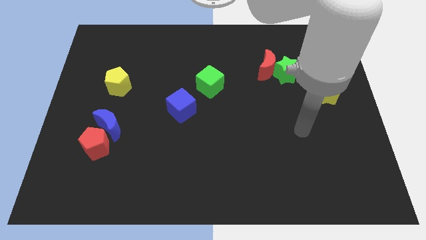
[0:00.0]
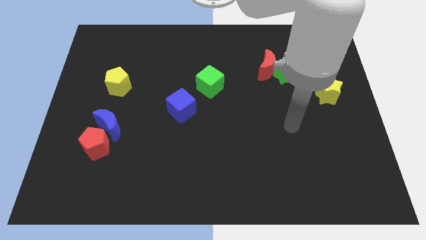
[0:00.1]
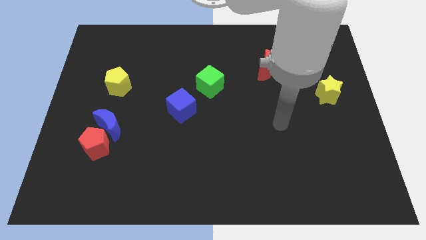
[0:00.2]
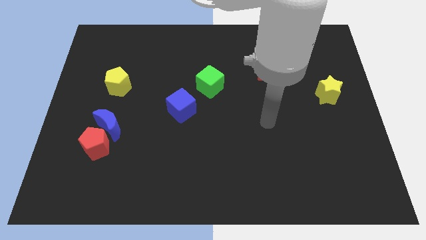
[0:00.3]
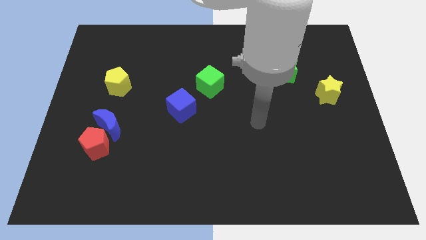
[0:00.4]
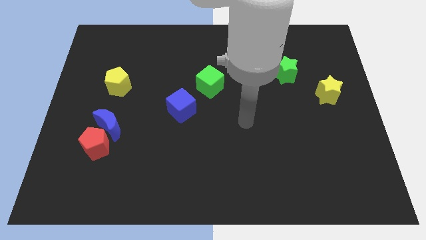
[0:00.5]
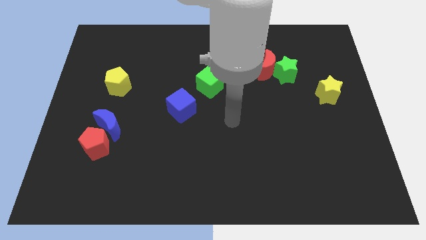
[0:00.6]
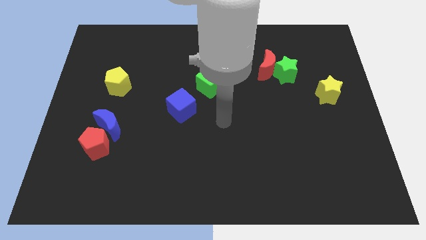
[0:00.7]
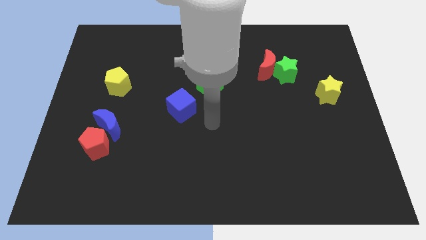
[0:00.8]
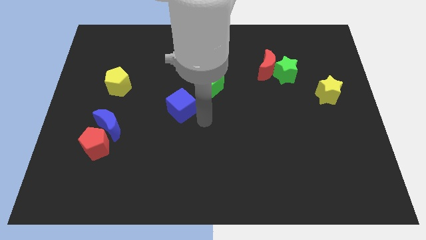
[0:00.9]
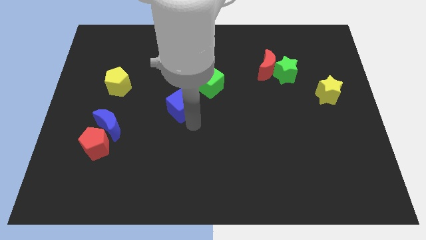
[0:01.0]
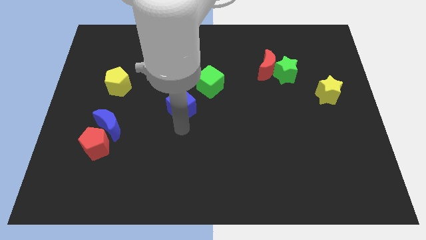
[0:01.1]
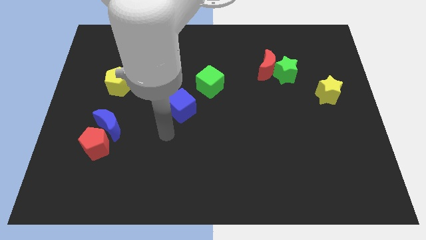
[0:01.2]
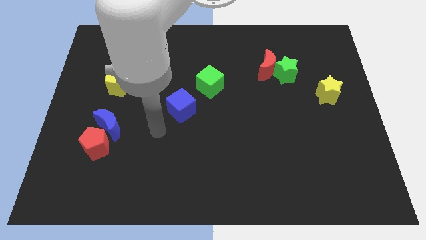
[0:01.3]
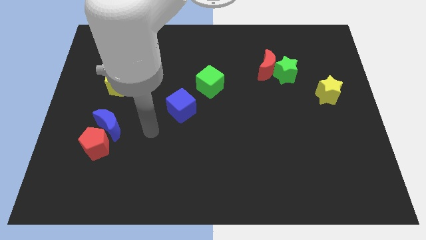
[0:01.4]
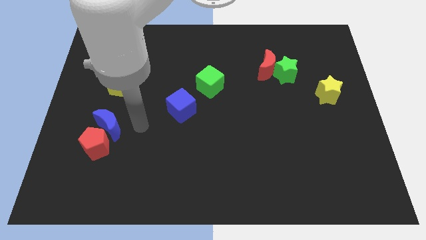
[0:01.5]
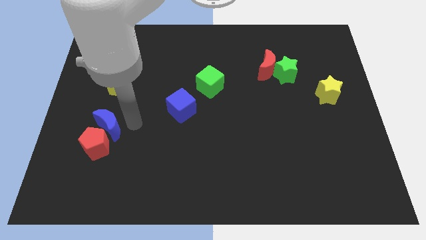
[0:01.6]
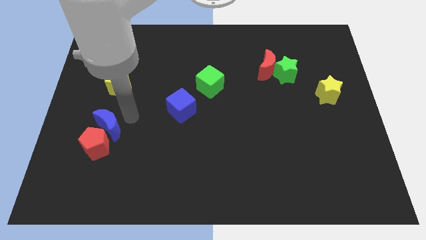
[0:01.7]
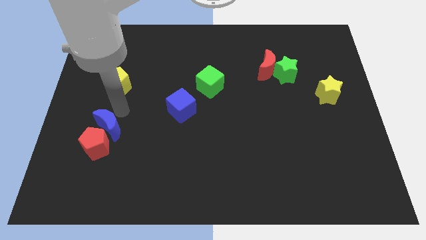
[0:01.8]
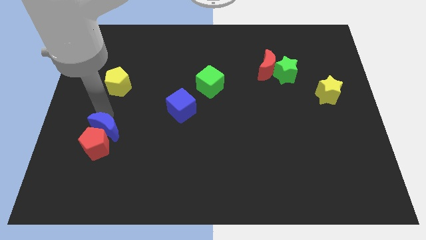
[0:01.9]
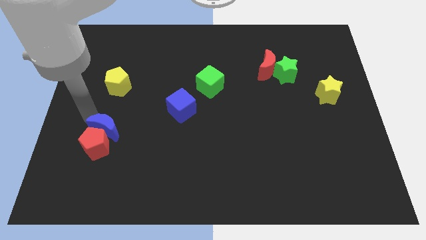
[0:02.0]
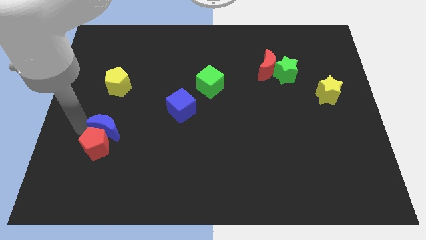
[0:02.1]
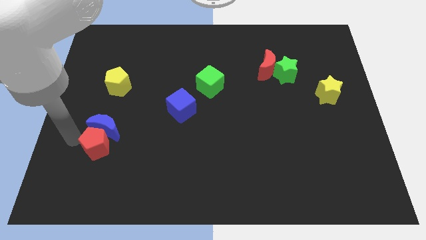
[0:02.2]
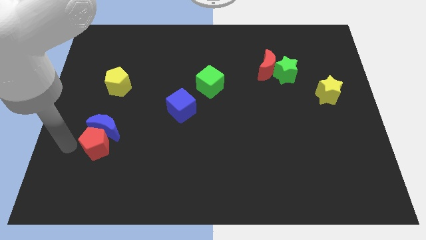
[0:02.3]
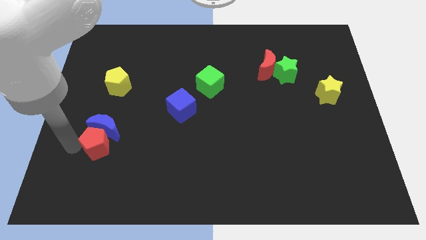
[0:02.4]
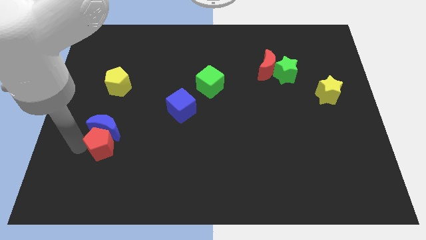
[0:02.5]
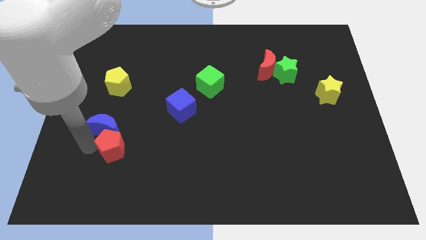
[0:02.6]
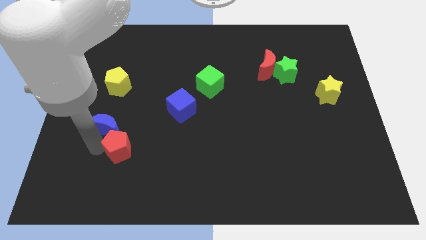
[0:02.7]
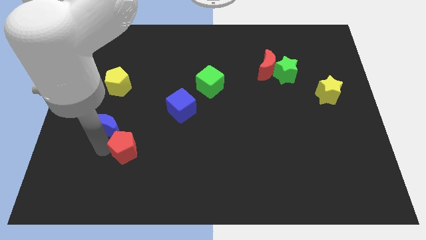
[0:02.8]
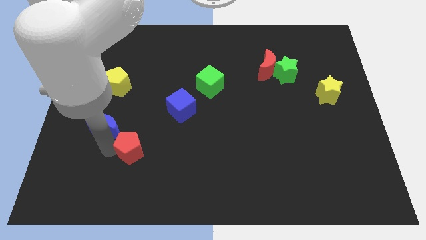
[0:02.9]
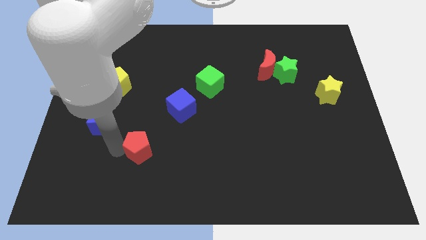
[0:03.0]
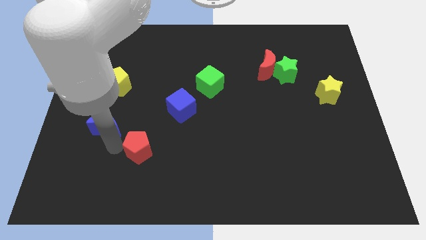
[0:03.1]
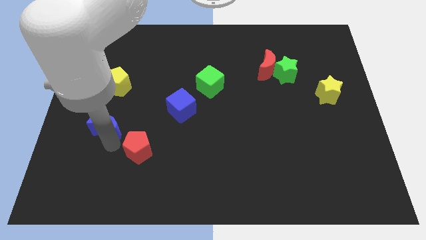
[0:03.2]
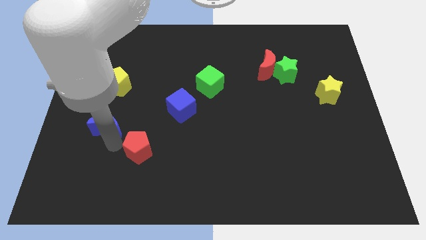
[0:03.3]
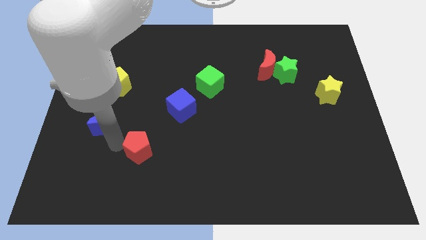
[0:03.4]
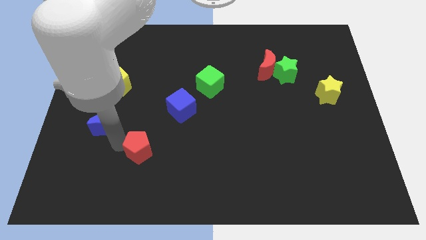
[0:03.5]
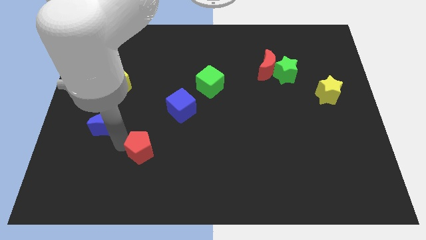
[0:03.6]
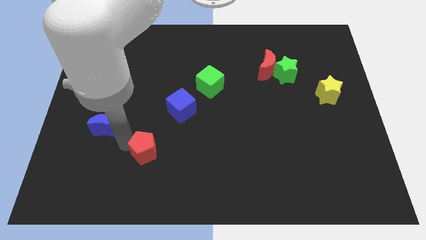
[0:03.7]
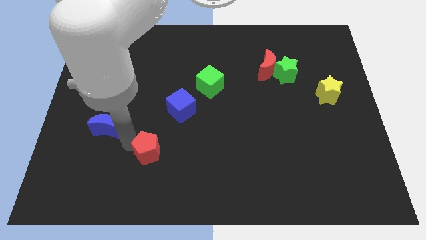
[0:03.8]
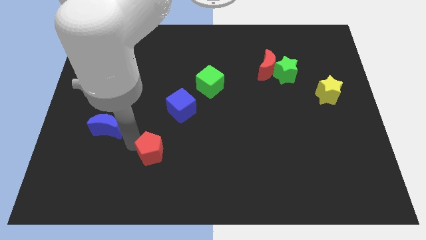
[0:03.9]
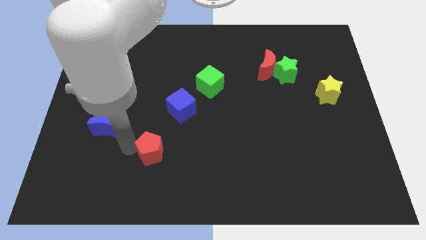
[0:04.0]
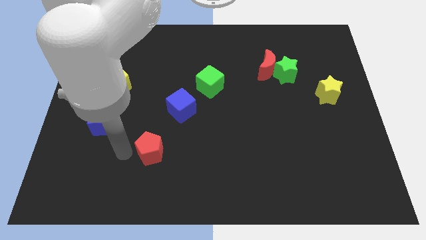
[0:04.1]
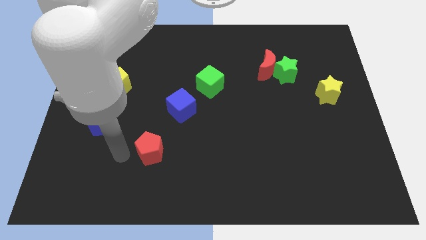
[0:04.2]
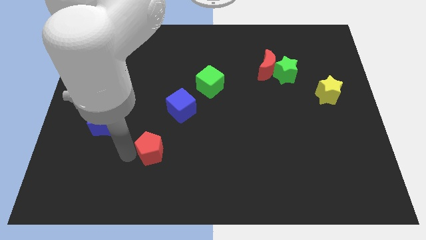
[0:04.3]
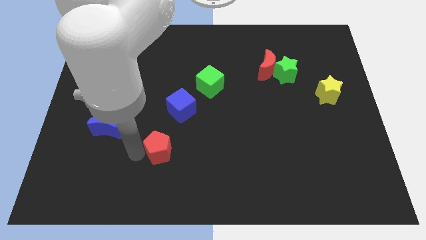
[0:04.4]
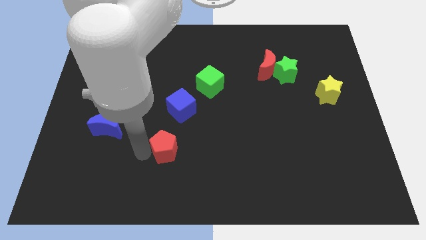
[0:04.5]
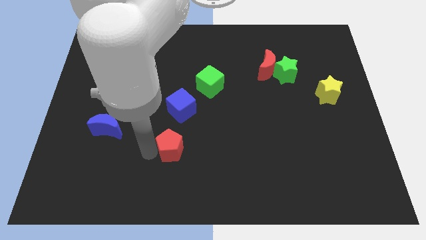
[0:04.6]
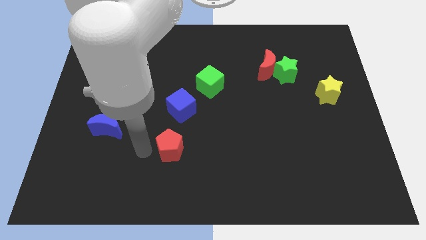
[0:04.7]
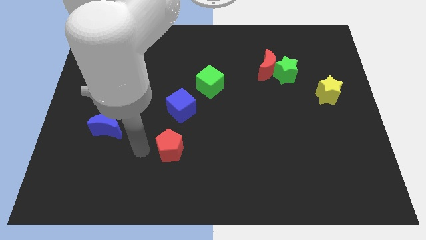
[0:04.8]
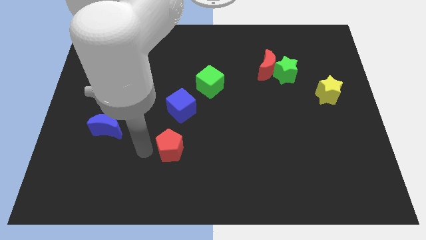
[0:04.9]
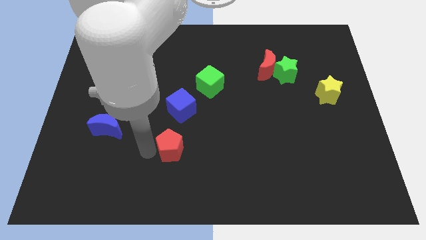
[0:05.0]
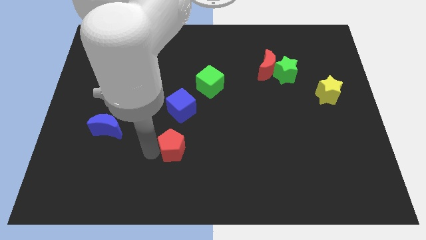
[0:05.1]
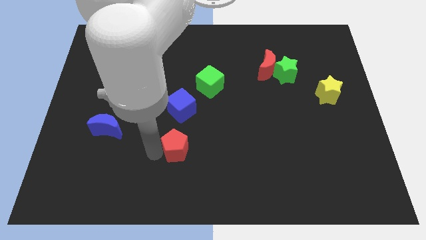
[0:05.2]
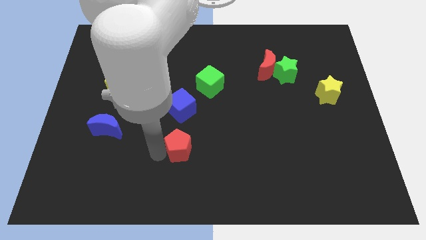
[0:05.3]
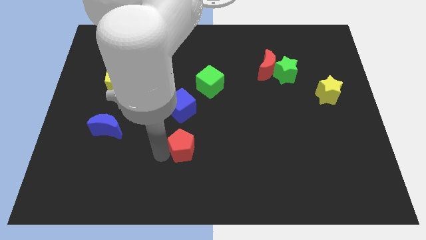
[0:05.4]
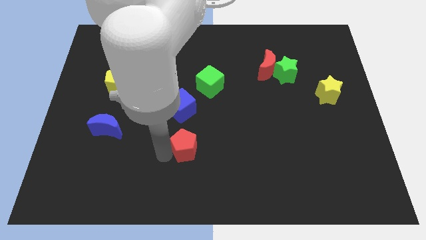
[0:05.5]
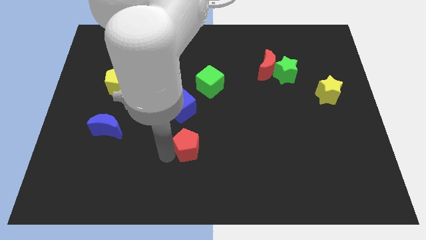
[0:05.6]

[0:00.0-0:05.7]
push the red pentagon to the right

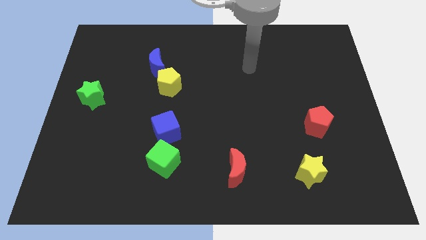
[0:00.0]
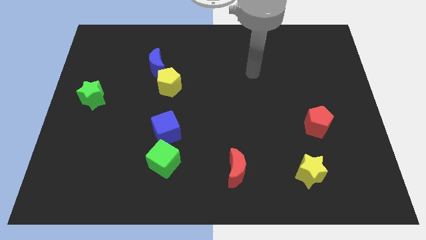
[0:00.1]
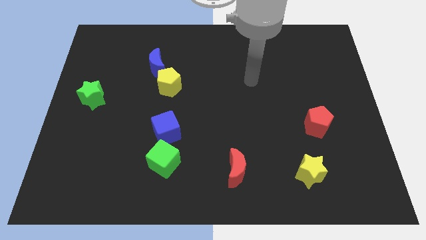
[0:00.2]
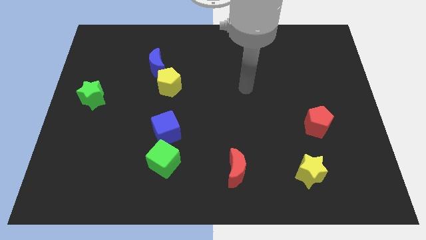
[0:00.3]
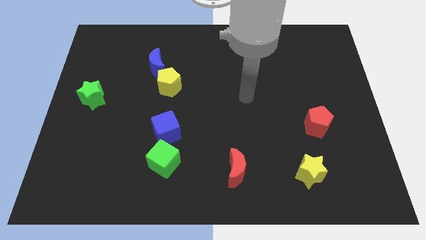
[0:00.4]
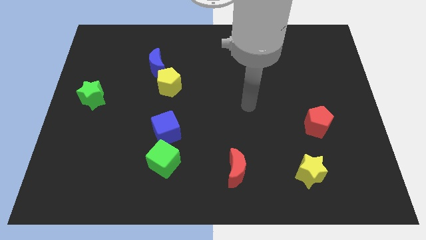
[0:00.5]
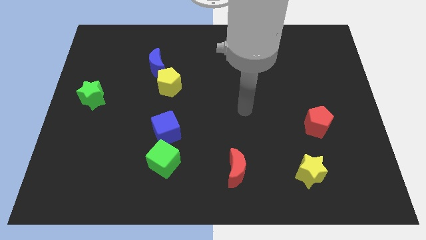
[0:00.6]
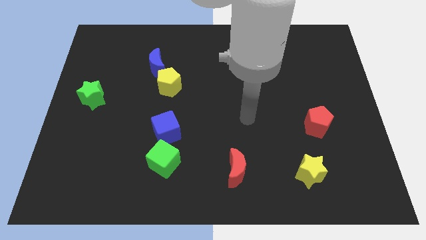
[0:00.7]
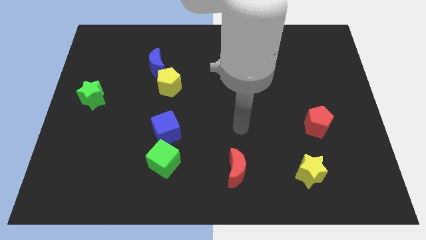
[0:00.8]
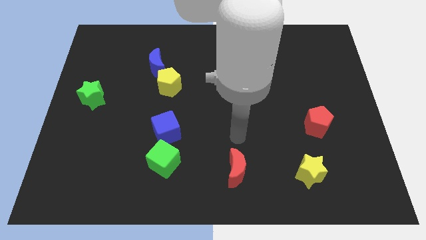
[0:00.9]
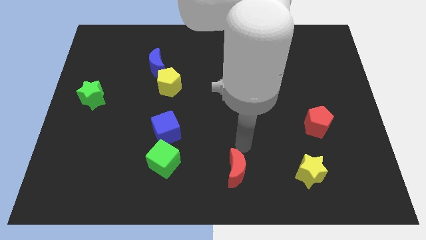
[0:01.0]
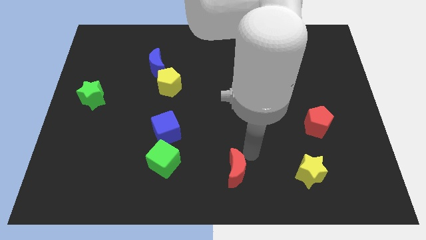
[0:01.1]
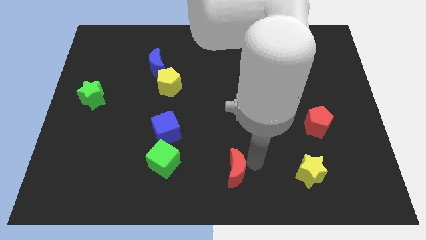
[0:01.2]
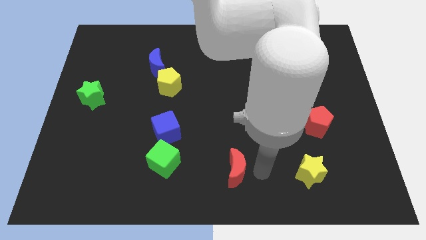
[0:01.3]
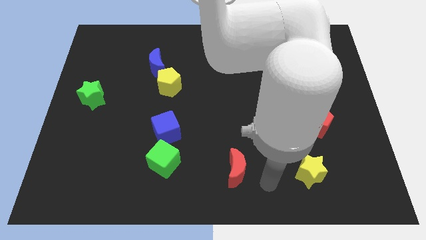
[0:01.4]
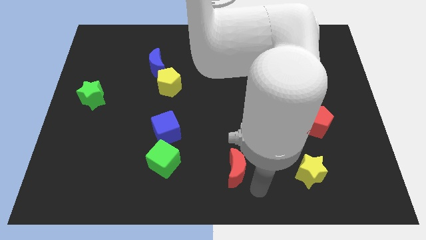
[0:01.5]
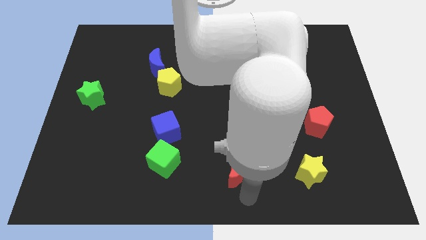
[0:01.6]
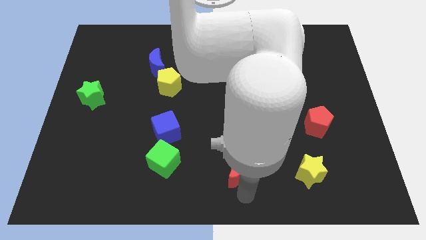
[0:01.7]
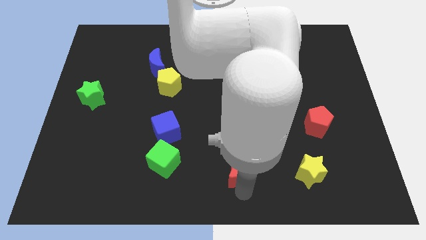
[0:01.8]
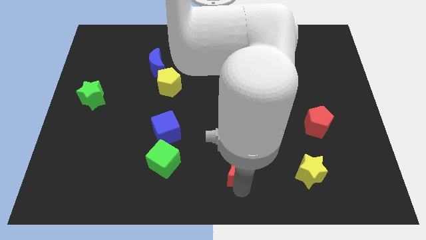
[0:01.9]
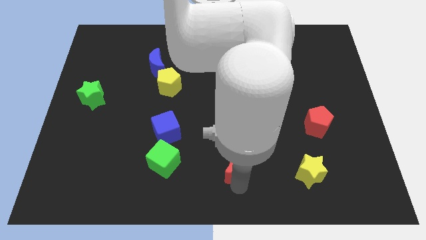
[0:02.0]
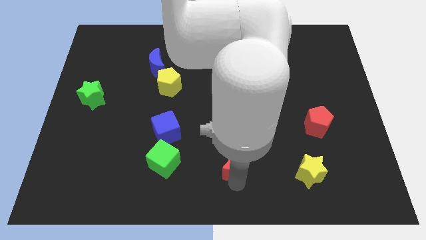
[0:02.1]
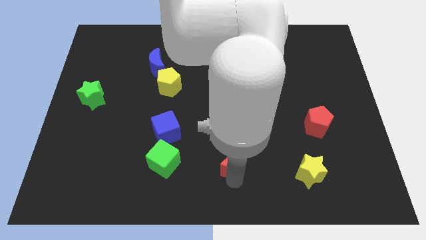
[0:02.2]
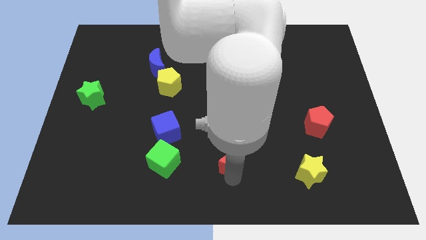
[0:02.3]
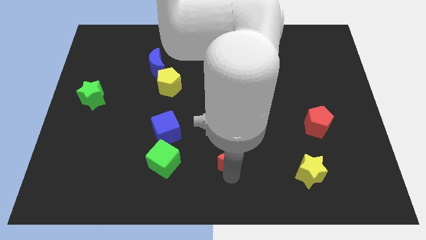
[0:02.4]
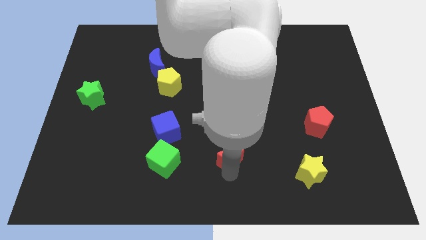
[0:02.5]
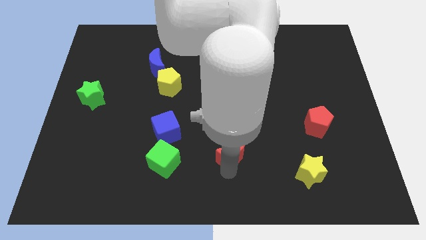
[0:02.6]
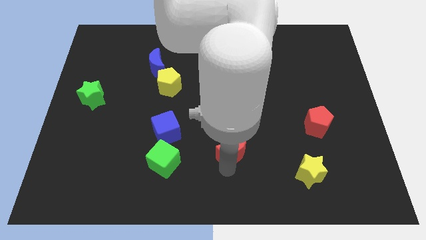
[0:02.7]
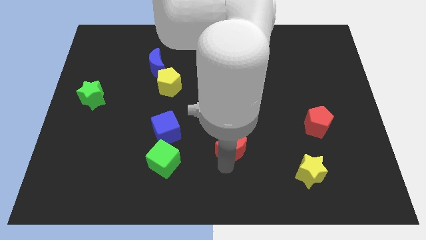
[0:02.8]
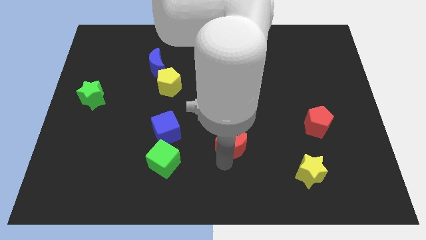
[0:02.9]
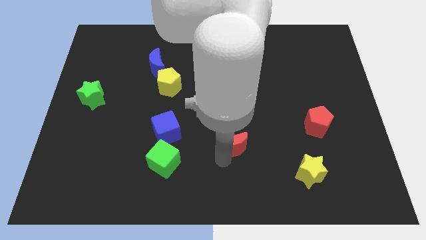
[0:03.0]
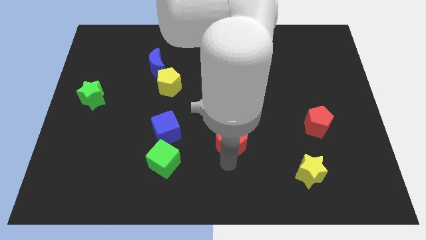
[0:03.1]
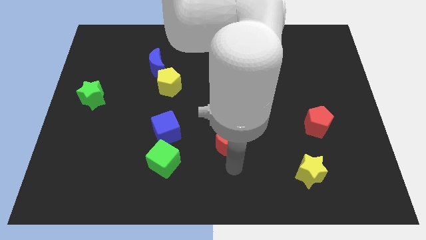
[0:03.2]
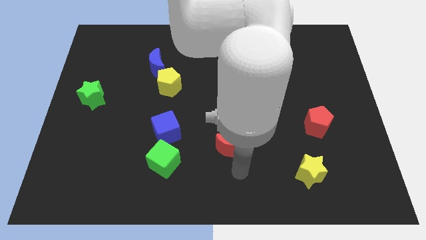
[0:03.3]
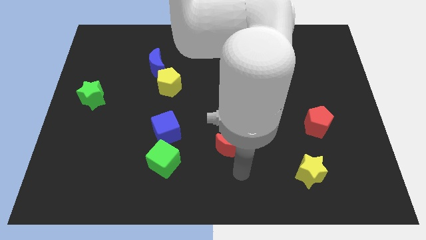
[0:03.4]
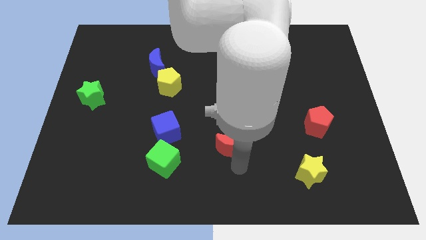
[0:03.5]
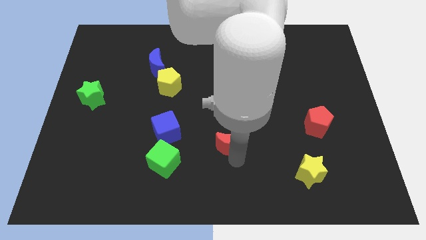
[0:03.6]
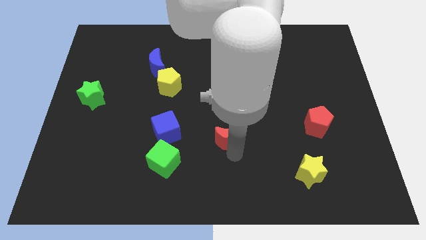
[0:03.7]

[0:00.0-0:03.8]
slightly move the red moon upwards
